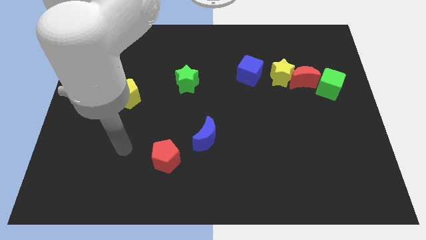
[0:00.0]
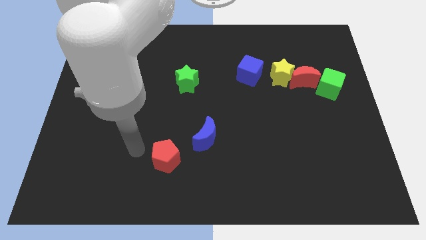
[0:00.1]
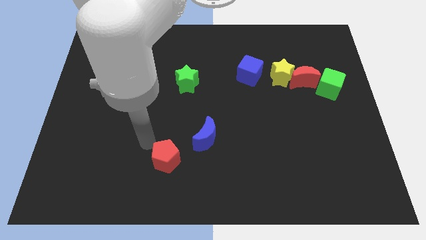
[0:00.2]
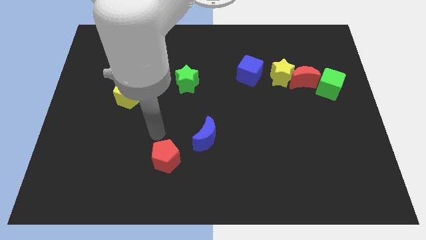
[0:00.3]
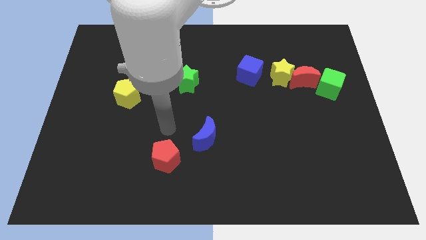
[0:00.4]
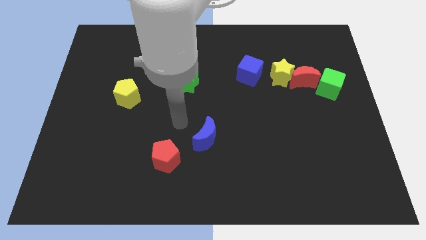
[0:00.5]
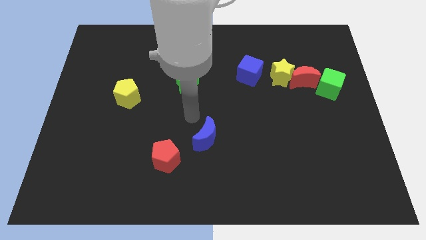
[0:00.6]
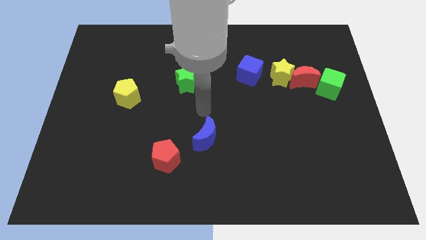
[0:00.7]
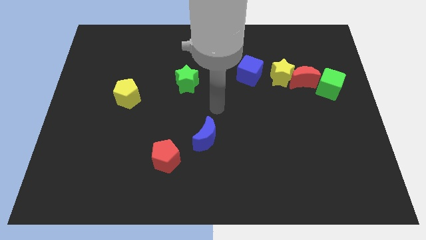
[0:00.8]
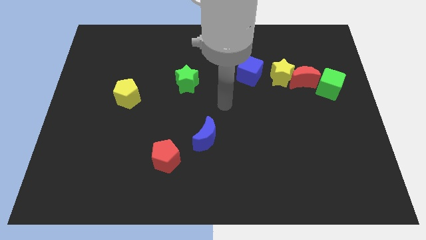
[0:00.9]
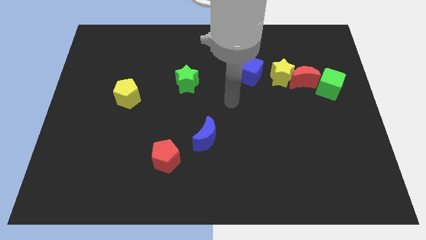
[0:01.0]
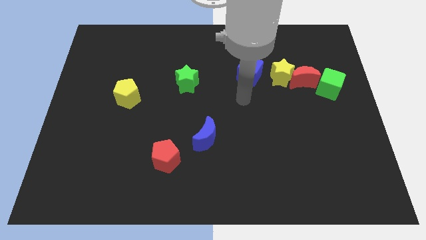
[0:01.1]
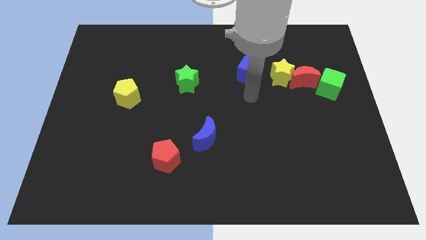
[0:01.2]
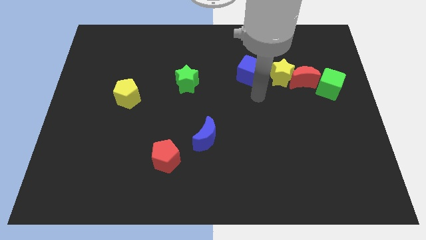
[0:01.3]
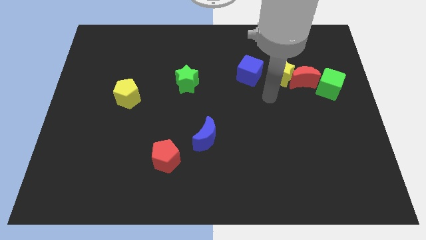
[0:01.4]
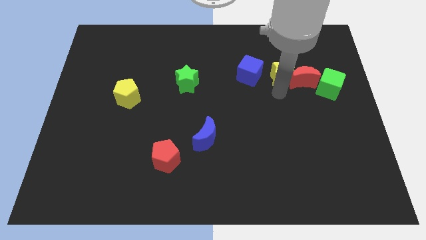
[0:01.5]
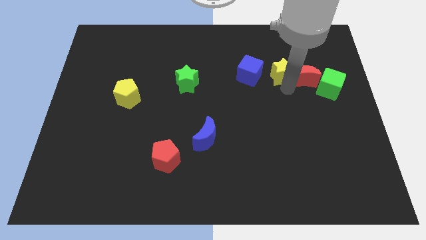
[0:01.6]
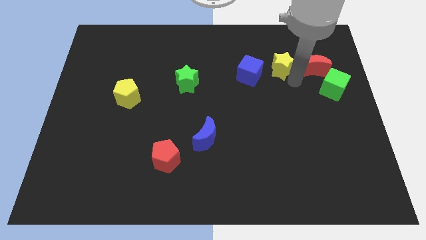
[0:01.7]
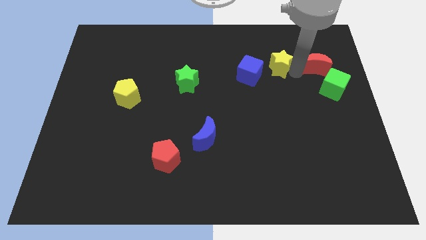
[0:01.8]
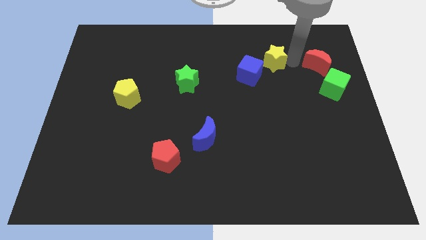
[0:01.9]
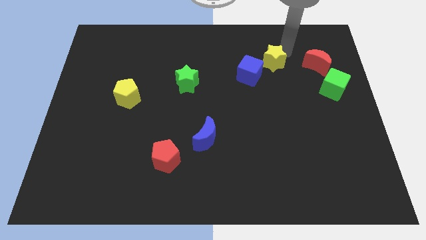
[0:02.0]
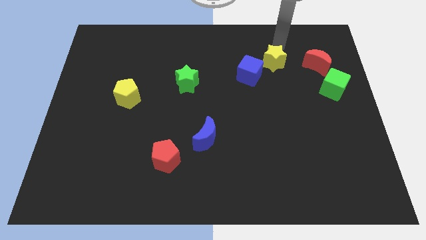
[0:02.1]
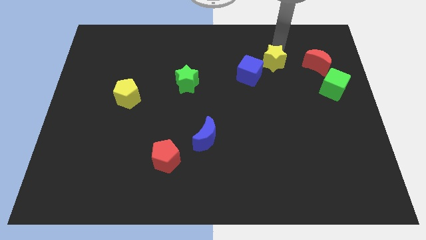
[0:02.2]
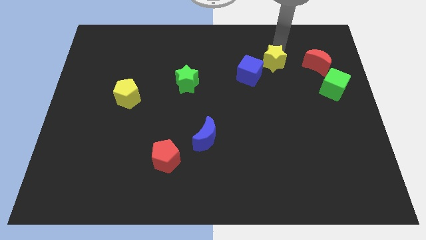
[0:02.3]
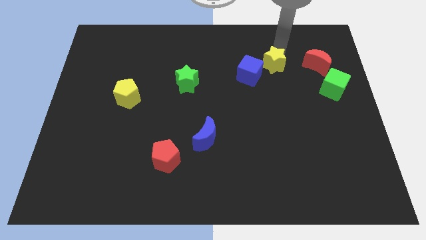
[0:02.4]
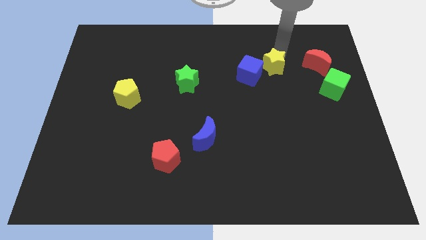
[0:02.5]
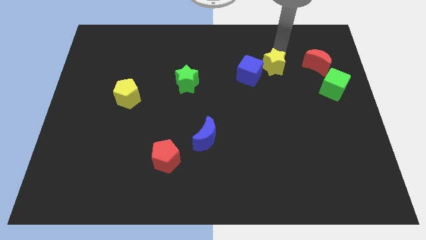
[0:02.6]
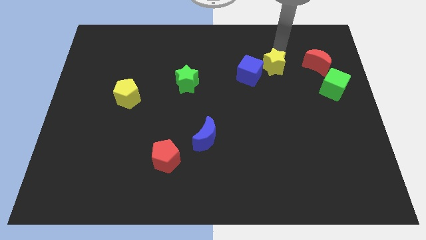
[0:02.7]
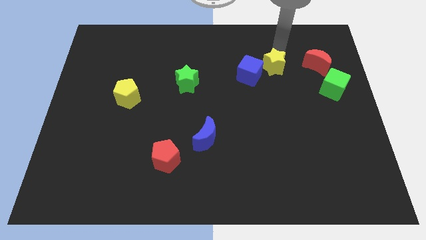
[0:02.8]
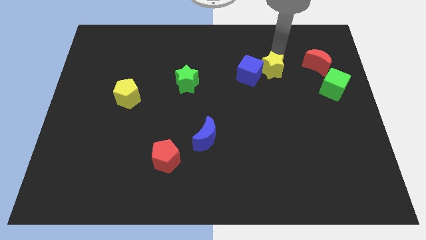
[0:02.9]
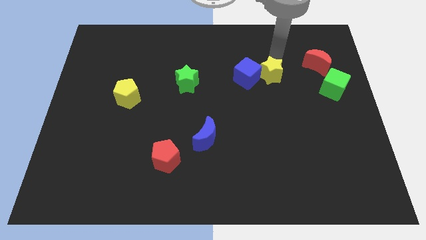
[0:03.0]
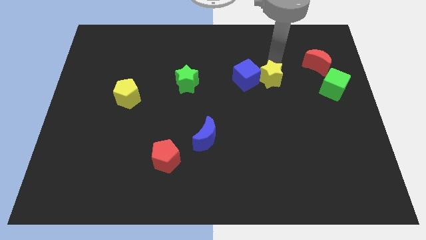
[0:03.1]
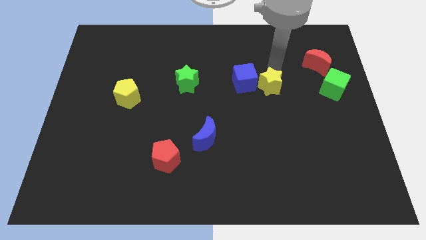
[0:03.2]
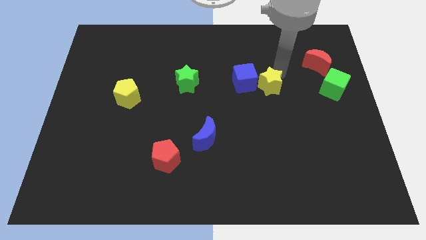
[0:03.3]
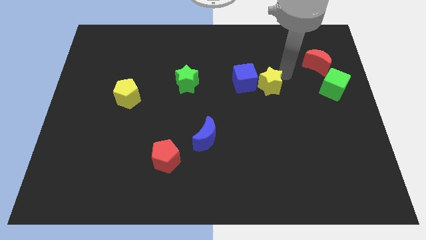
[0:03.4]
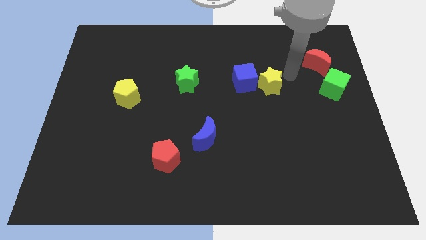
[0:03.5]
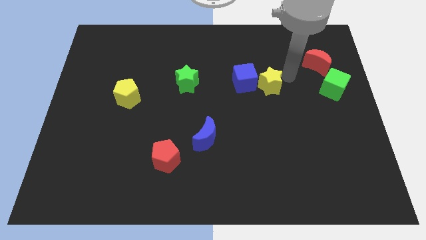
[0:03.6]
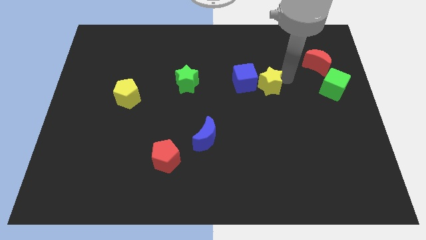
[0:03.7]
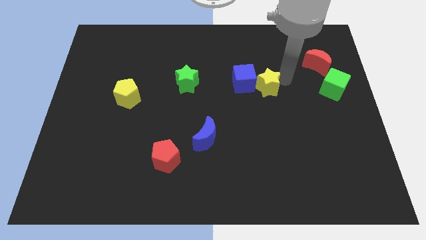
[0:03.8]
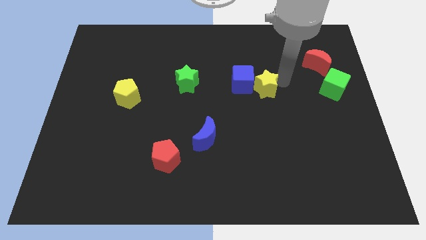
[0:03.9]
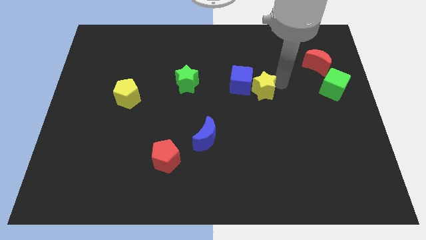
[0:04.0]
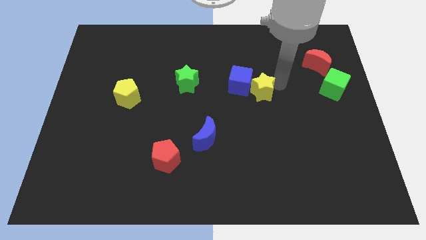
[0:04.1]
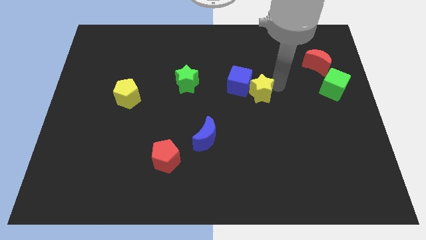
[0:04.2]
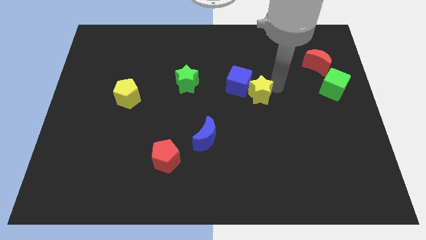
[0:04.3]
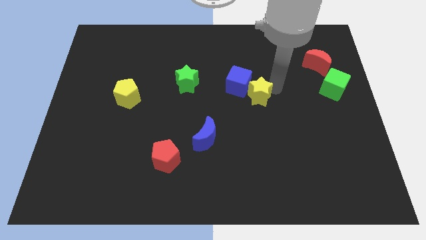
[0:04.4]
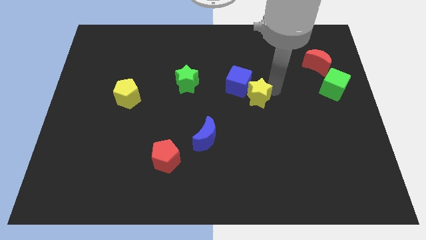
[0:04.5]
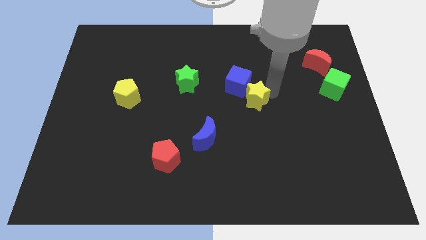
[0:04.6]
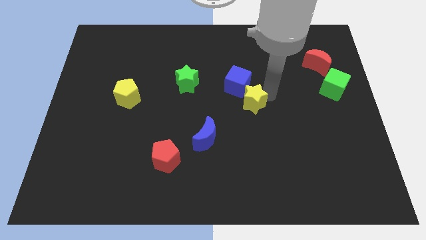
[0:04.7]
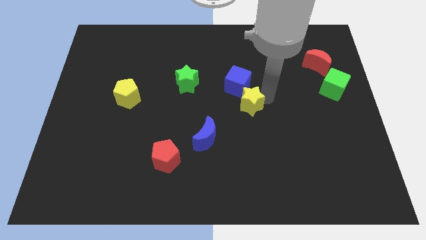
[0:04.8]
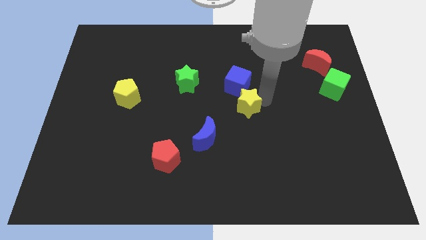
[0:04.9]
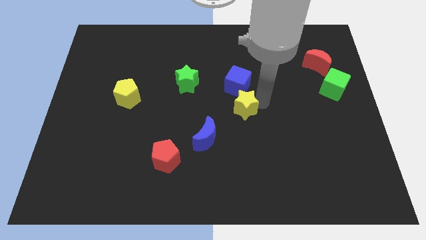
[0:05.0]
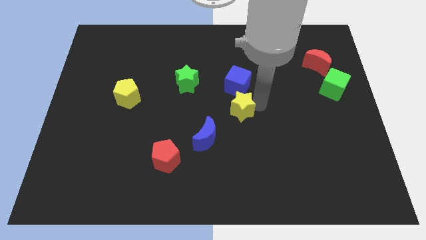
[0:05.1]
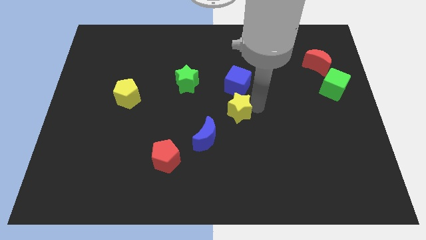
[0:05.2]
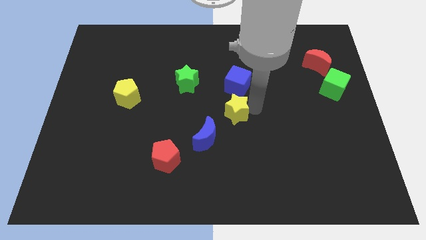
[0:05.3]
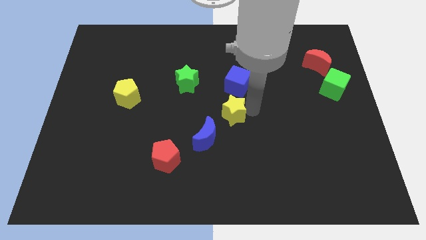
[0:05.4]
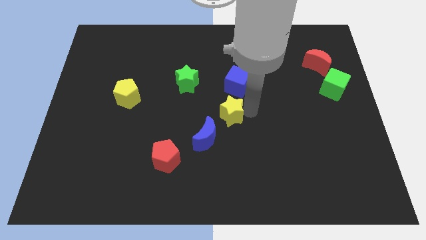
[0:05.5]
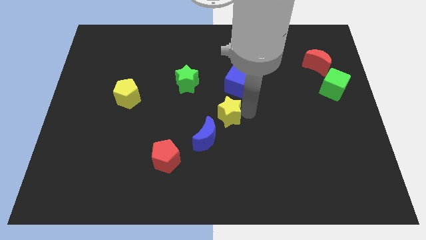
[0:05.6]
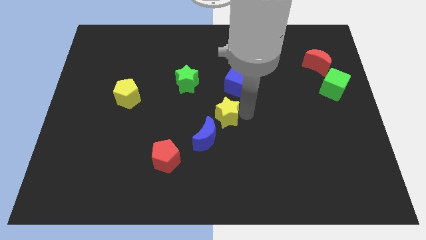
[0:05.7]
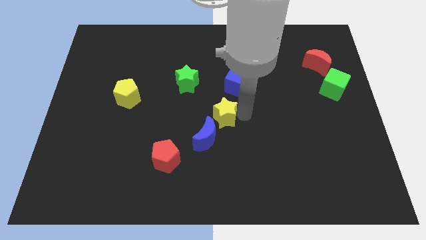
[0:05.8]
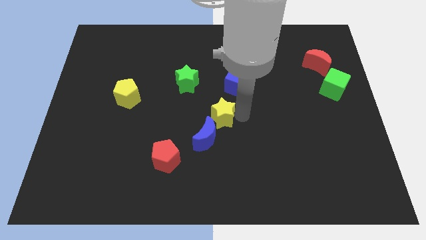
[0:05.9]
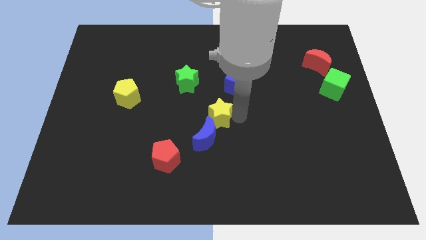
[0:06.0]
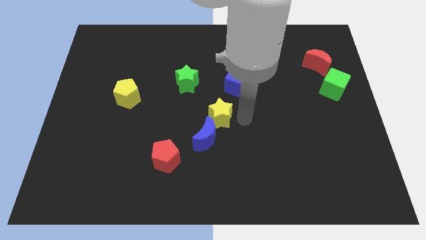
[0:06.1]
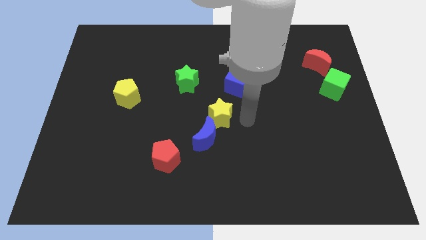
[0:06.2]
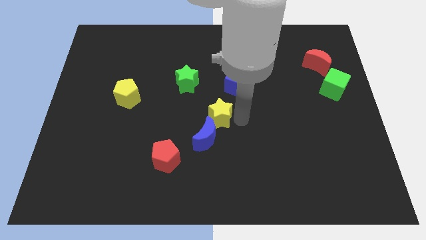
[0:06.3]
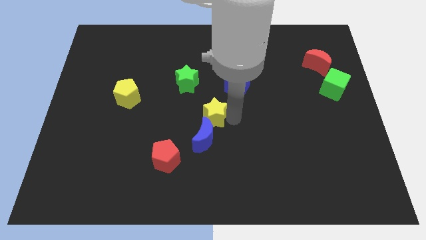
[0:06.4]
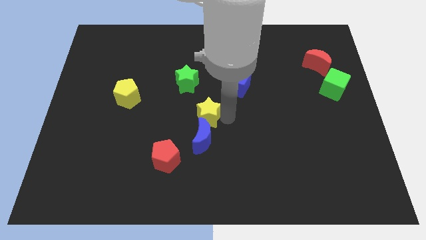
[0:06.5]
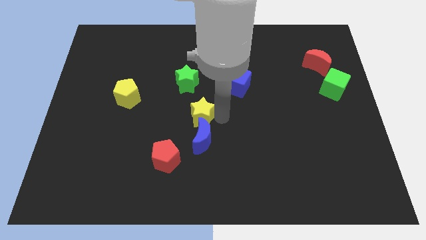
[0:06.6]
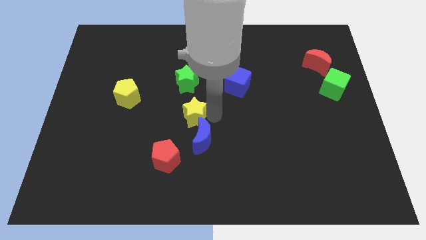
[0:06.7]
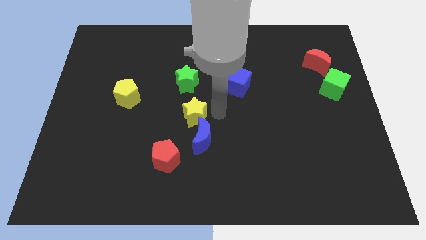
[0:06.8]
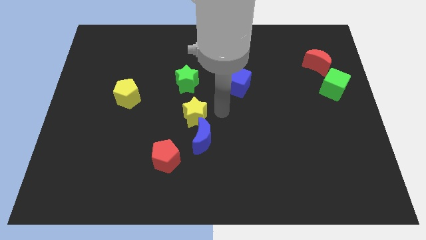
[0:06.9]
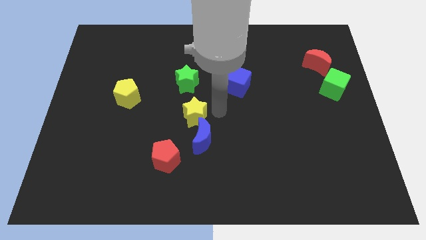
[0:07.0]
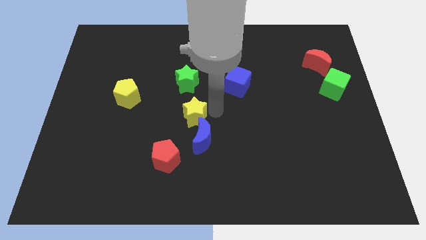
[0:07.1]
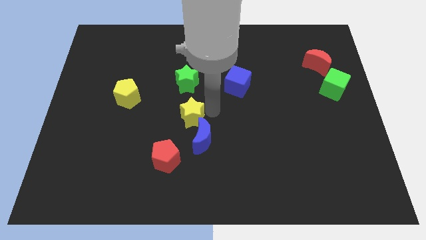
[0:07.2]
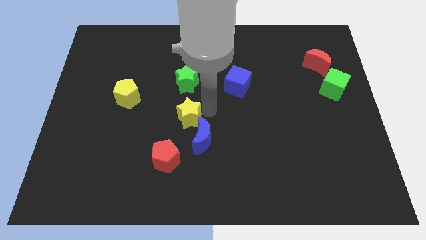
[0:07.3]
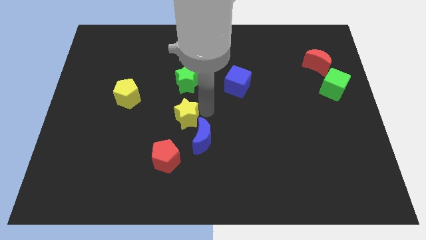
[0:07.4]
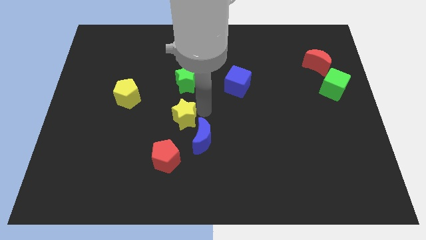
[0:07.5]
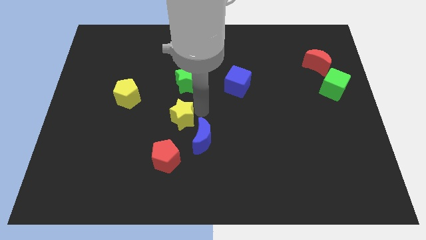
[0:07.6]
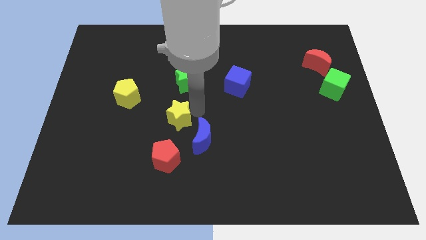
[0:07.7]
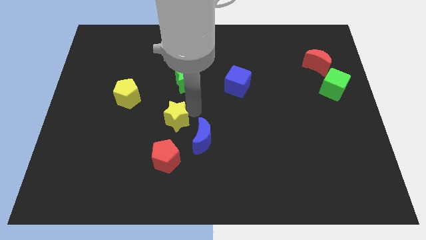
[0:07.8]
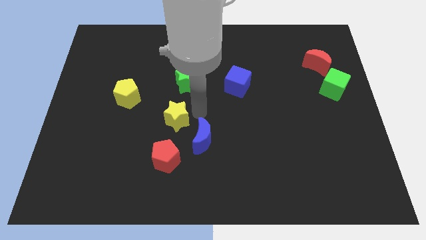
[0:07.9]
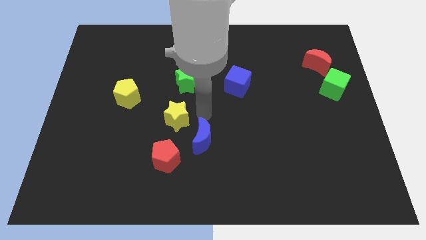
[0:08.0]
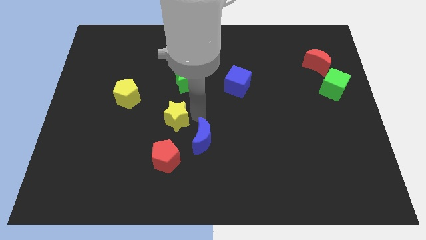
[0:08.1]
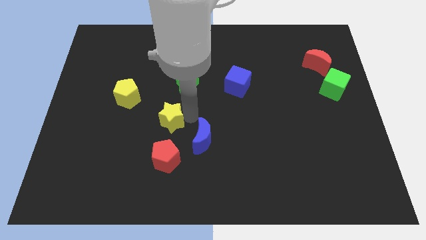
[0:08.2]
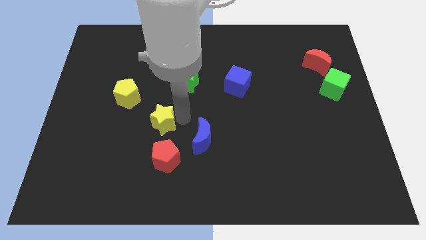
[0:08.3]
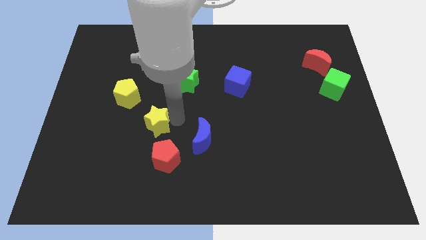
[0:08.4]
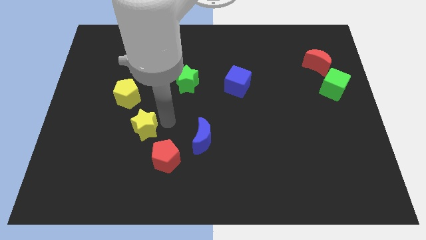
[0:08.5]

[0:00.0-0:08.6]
push the yellow star to the bottom side of the yellow pentagon
